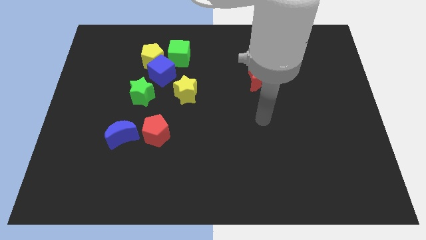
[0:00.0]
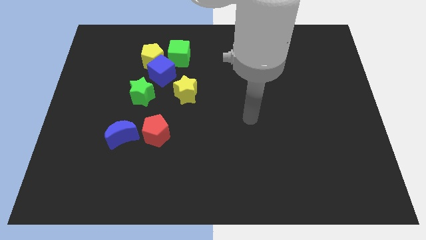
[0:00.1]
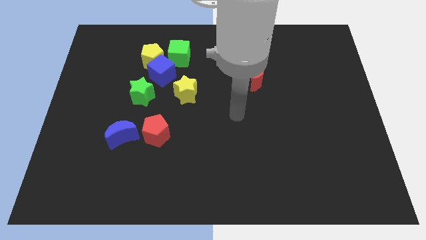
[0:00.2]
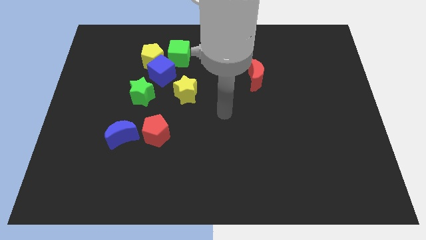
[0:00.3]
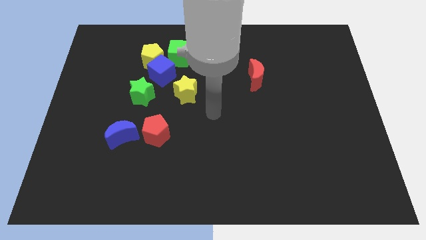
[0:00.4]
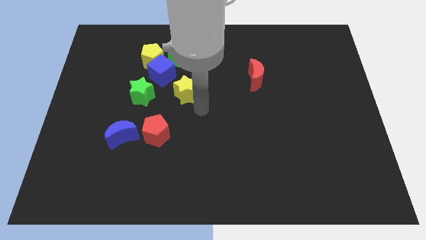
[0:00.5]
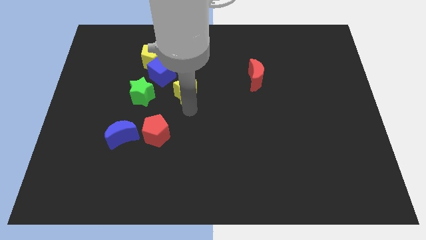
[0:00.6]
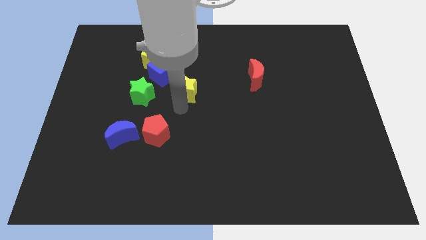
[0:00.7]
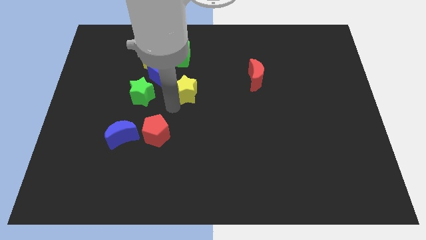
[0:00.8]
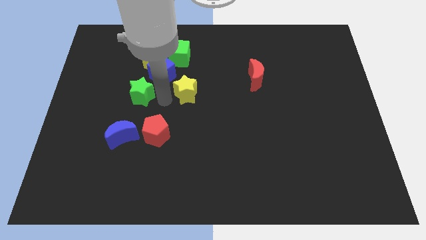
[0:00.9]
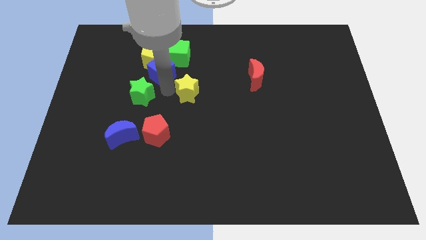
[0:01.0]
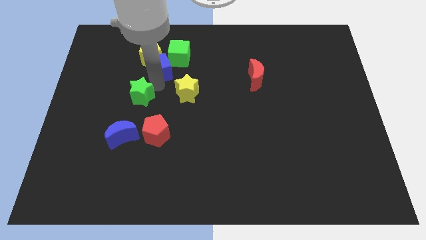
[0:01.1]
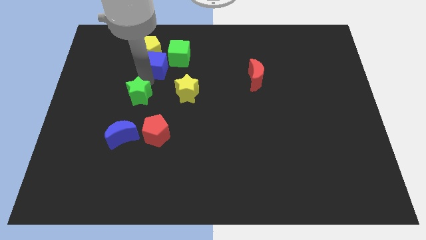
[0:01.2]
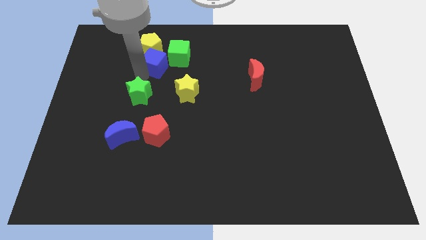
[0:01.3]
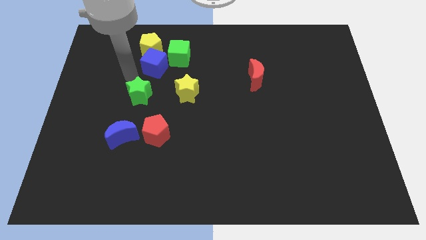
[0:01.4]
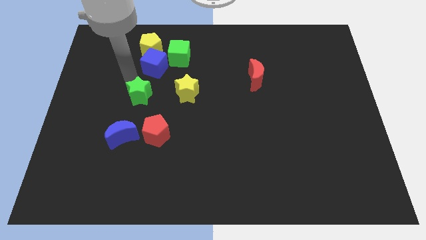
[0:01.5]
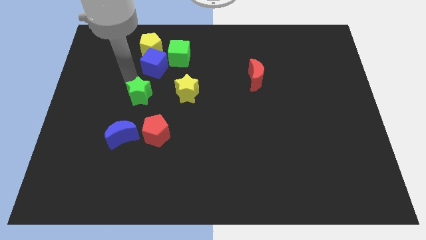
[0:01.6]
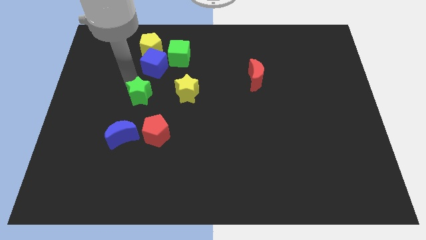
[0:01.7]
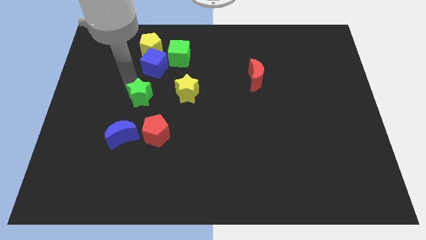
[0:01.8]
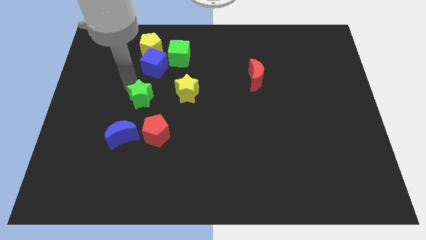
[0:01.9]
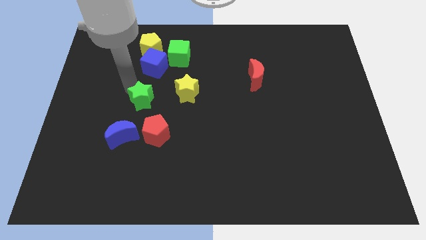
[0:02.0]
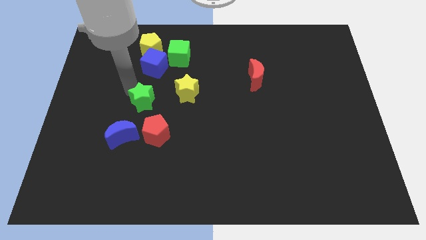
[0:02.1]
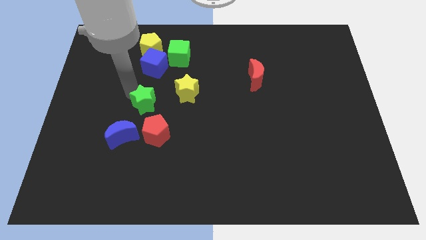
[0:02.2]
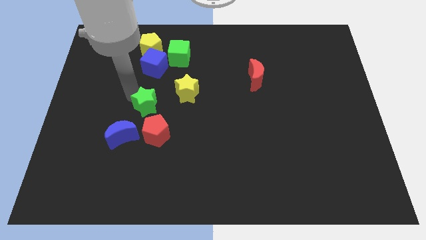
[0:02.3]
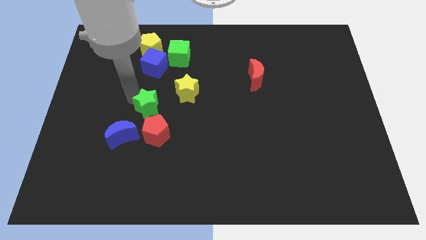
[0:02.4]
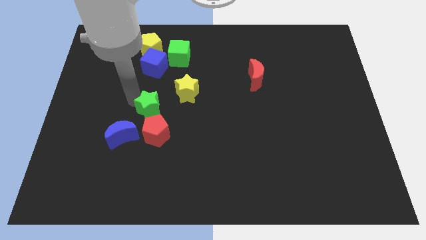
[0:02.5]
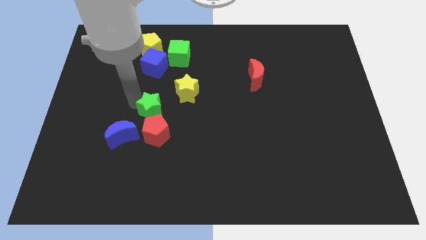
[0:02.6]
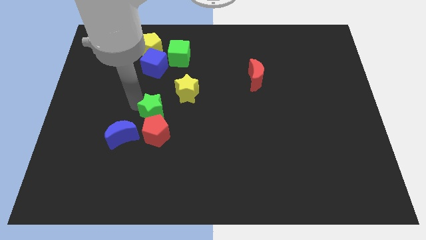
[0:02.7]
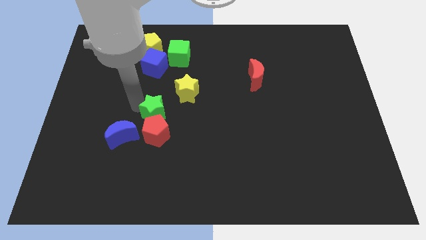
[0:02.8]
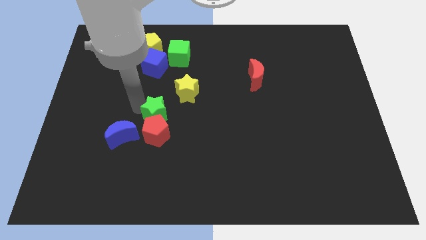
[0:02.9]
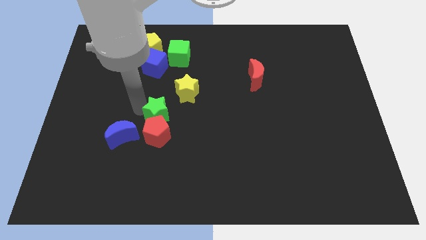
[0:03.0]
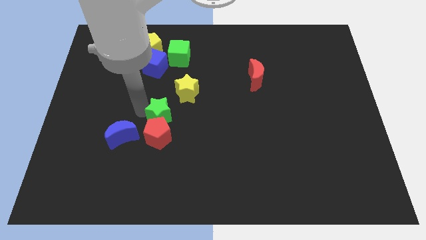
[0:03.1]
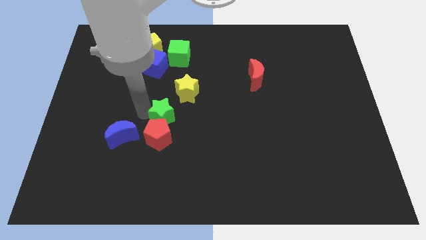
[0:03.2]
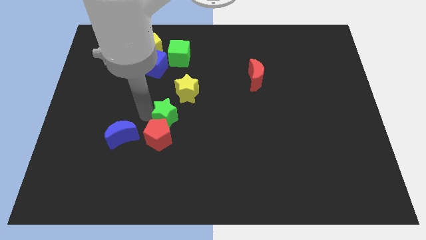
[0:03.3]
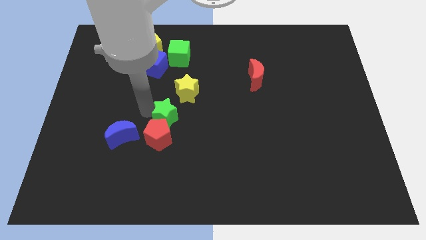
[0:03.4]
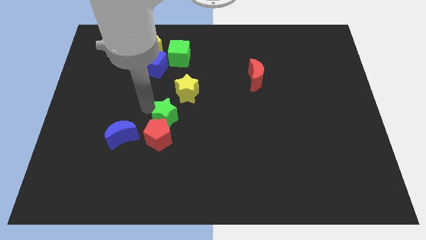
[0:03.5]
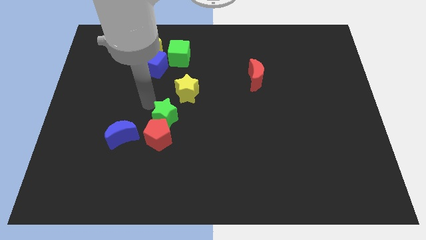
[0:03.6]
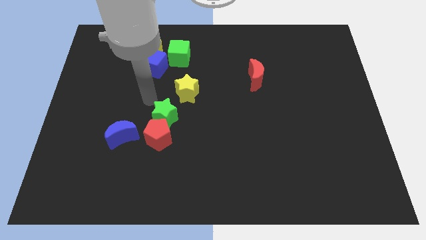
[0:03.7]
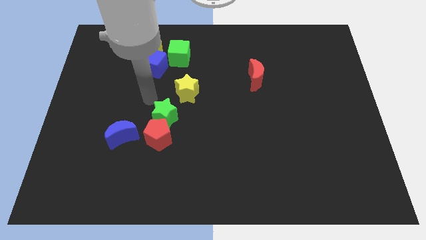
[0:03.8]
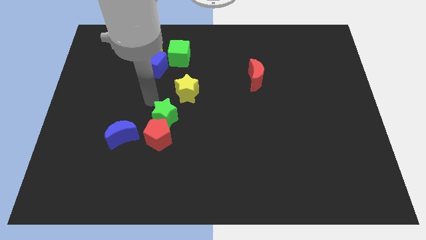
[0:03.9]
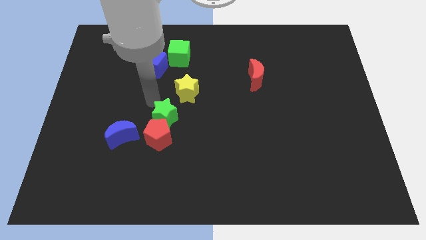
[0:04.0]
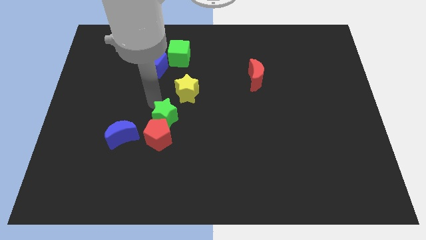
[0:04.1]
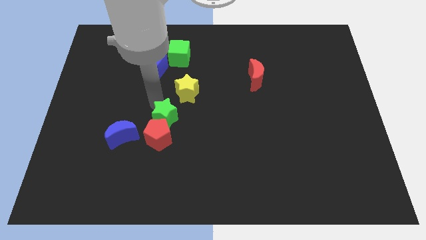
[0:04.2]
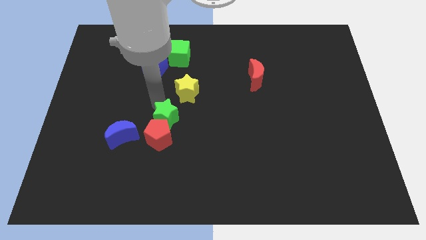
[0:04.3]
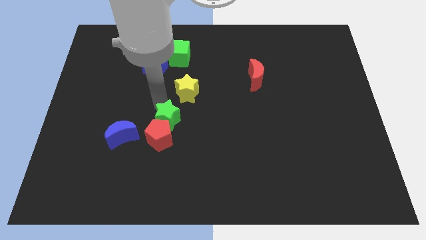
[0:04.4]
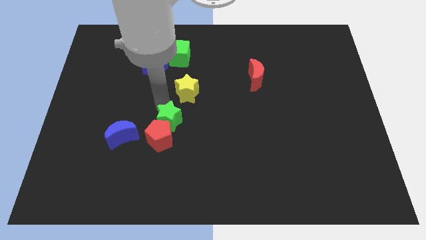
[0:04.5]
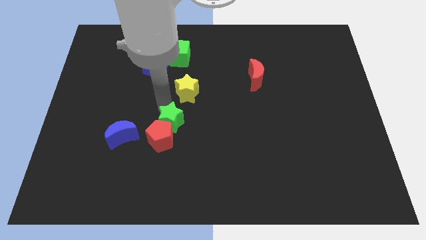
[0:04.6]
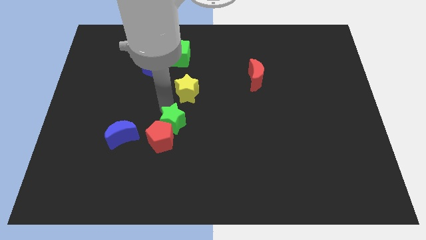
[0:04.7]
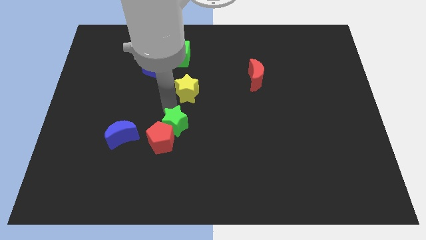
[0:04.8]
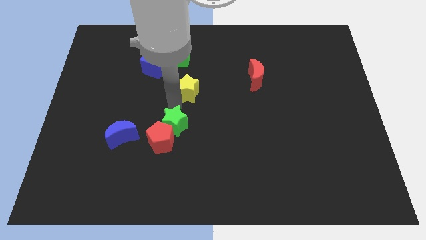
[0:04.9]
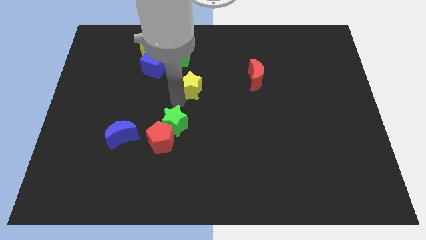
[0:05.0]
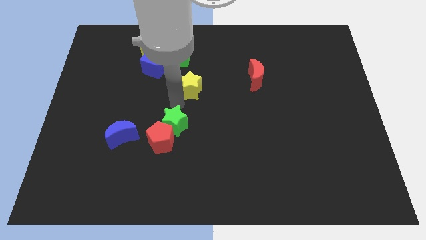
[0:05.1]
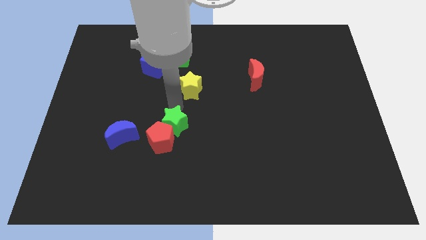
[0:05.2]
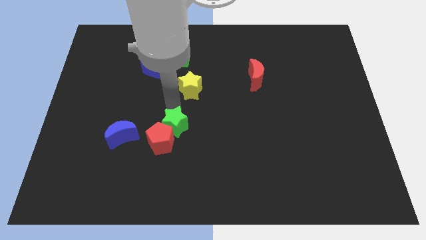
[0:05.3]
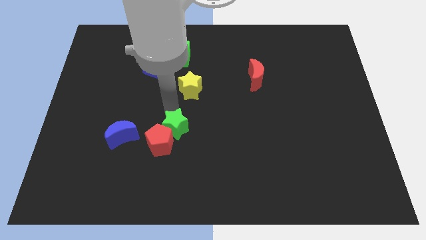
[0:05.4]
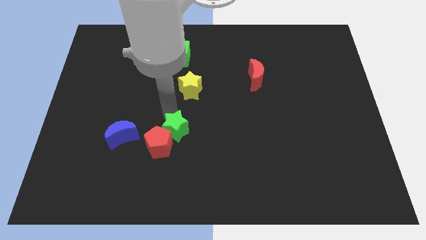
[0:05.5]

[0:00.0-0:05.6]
slide the green star a little downwards

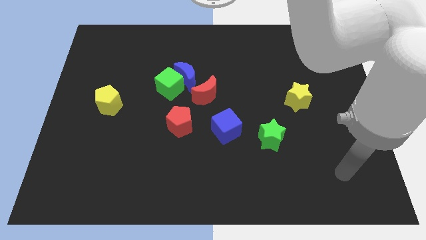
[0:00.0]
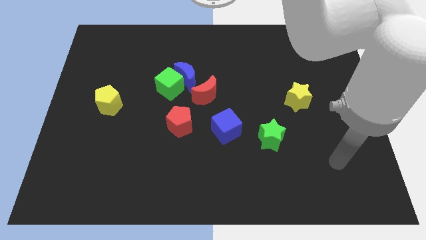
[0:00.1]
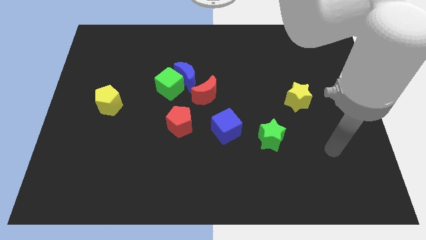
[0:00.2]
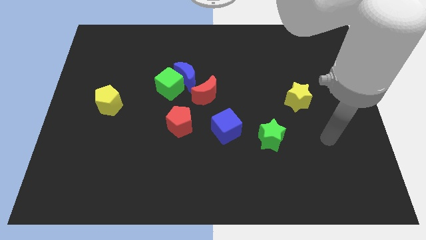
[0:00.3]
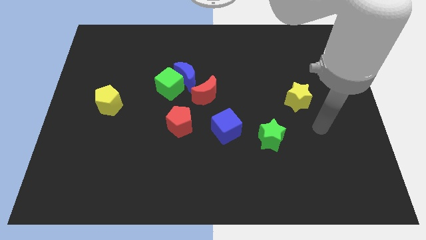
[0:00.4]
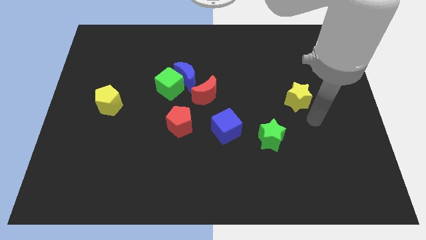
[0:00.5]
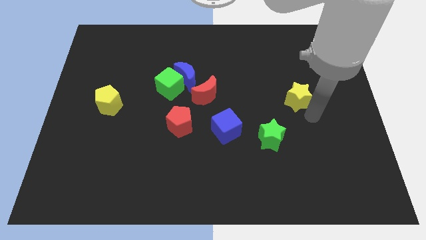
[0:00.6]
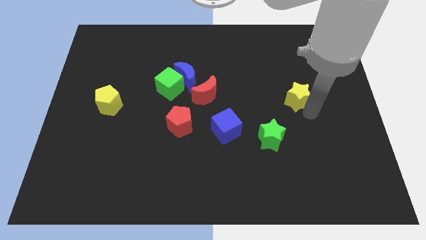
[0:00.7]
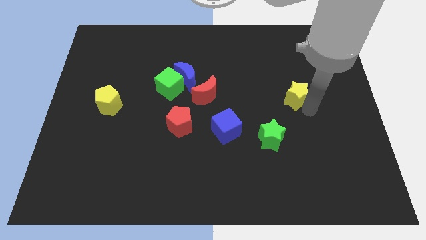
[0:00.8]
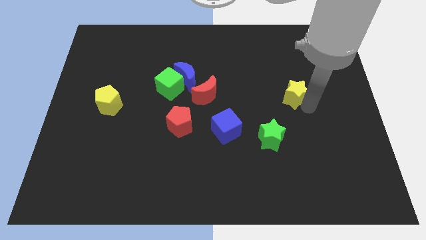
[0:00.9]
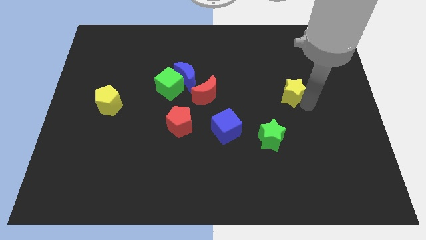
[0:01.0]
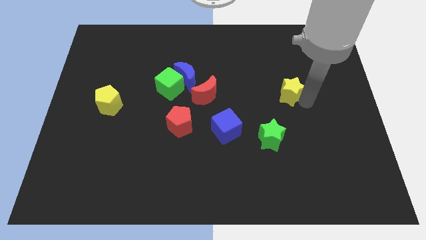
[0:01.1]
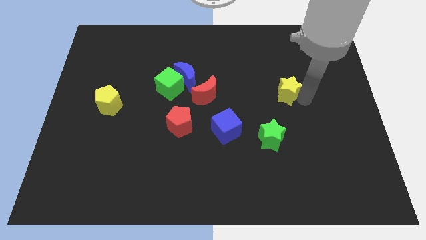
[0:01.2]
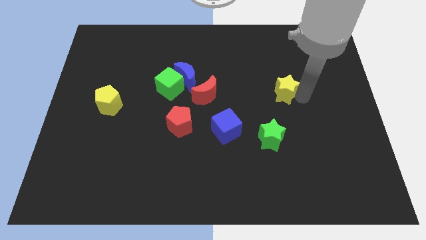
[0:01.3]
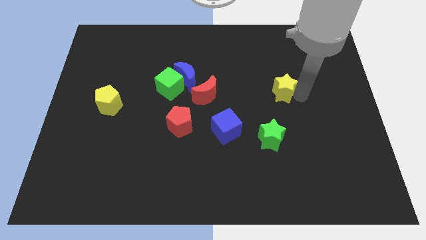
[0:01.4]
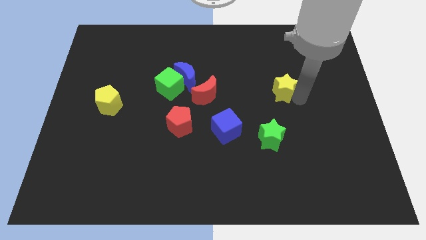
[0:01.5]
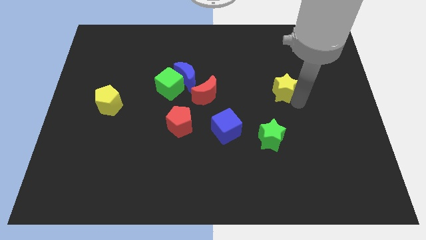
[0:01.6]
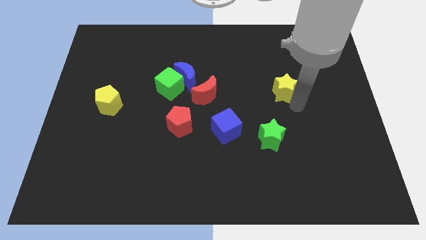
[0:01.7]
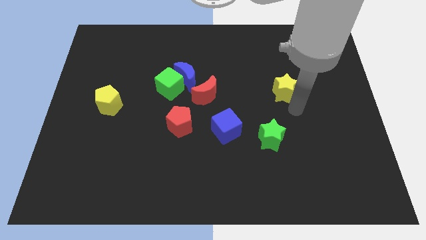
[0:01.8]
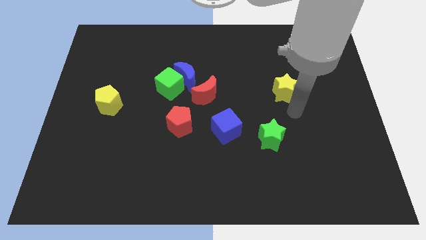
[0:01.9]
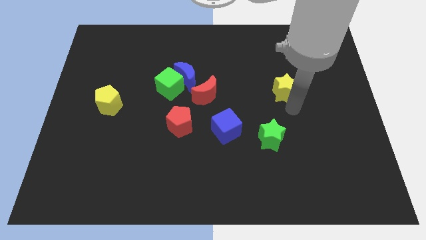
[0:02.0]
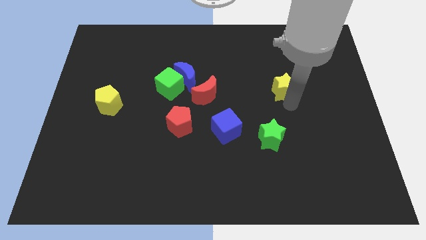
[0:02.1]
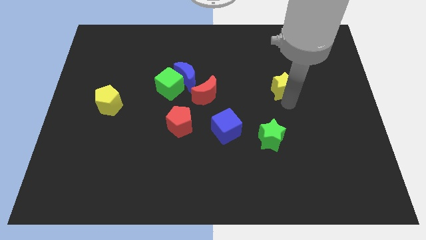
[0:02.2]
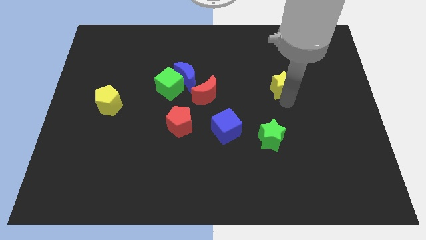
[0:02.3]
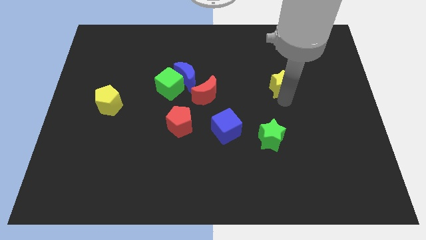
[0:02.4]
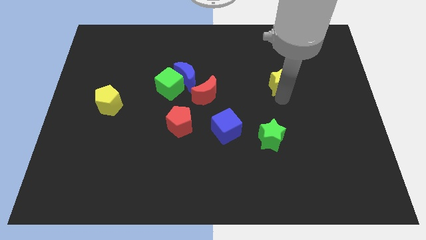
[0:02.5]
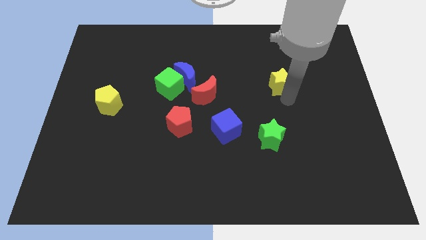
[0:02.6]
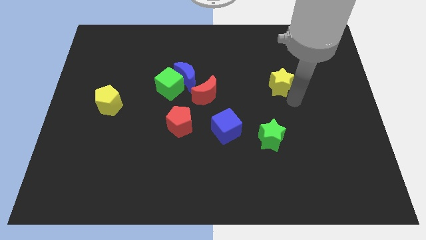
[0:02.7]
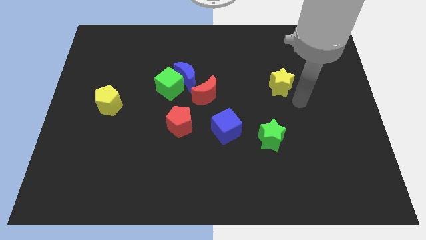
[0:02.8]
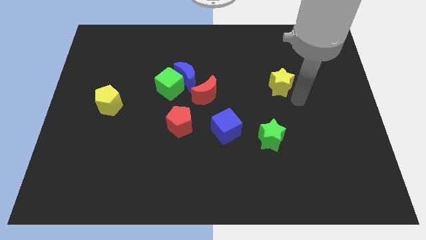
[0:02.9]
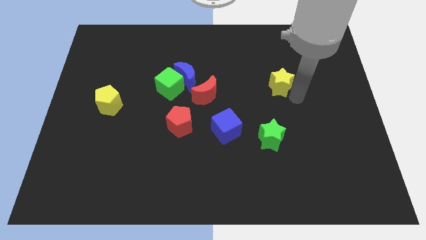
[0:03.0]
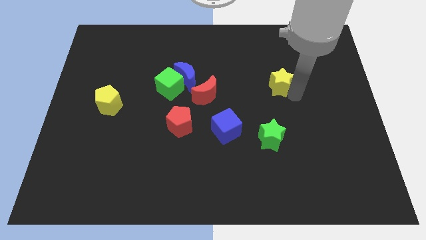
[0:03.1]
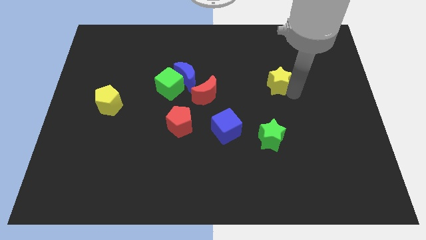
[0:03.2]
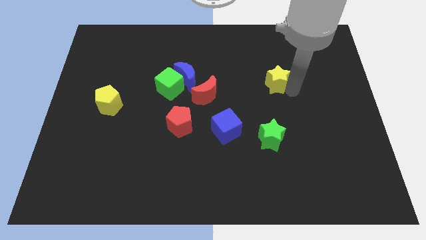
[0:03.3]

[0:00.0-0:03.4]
slide the yellow star a bit up and left diagonally
